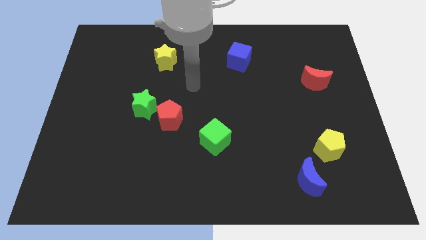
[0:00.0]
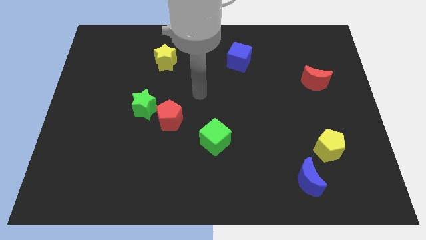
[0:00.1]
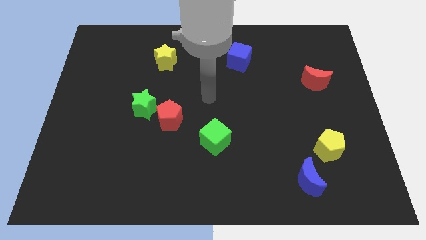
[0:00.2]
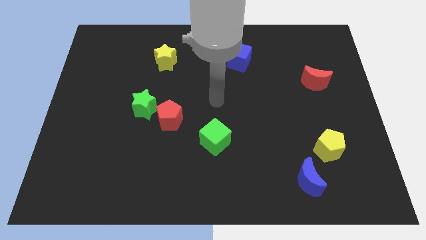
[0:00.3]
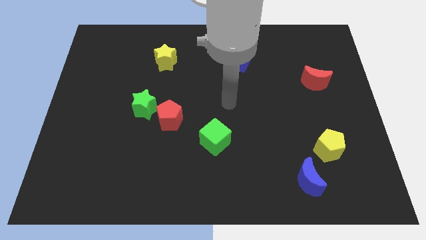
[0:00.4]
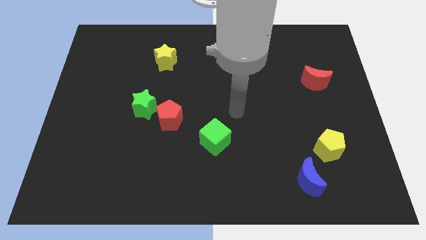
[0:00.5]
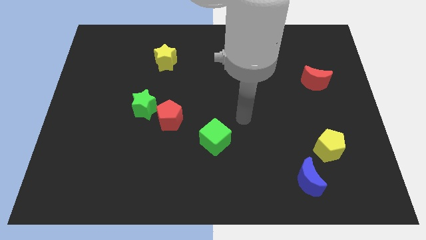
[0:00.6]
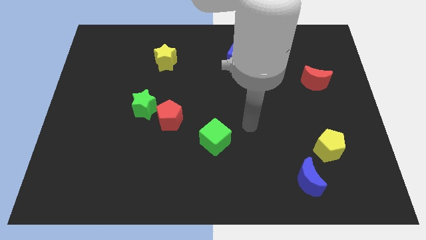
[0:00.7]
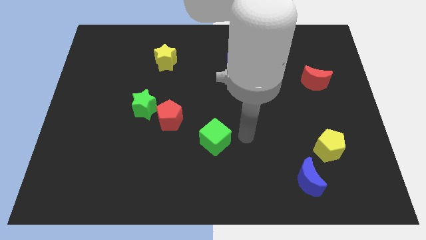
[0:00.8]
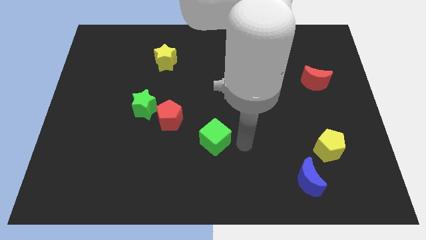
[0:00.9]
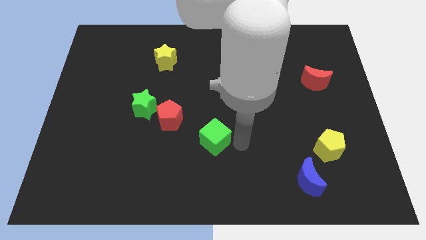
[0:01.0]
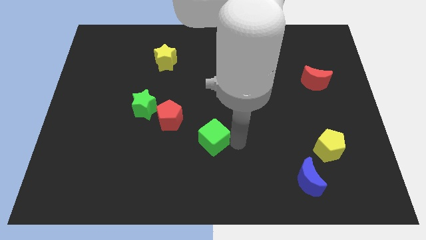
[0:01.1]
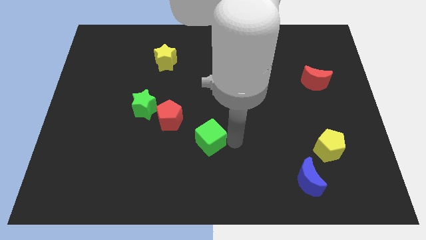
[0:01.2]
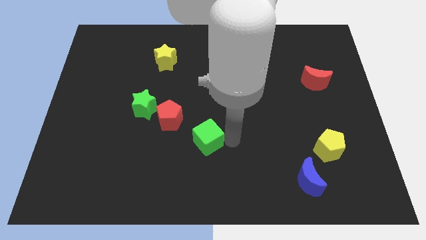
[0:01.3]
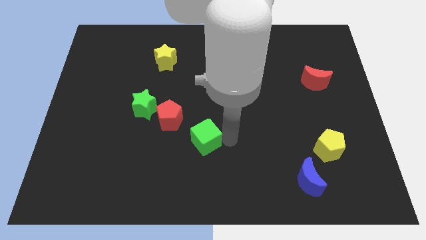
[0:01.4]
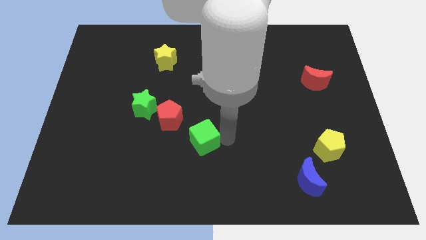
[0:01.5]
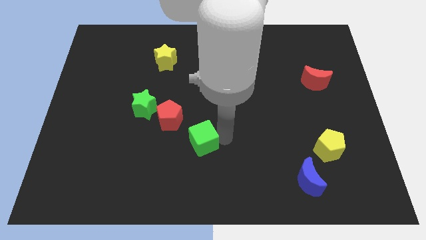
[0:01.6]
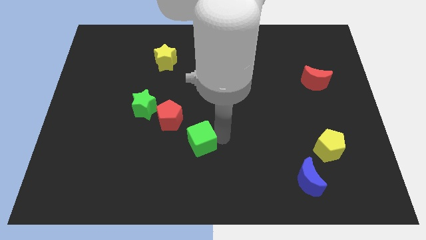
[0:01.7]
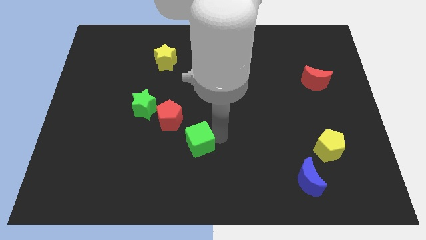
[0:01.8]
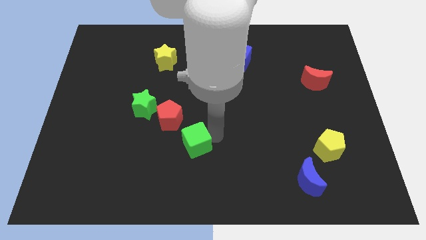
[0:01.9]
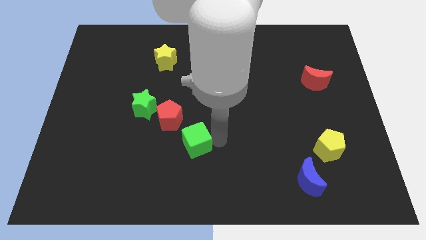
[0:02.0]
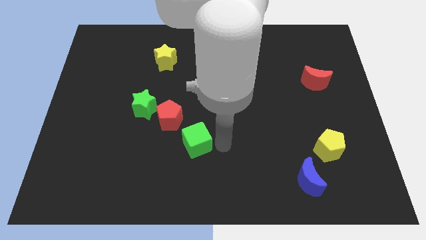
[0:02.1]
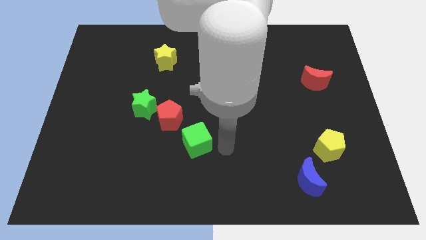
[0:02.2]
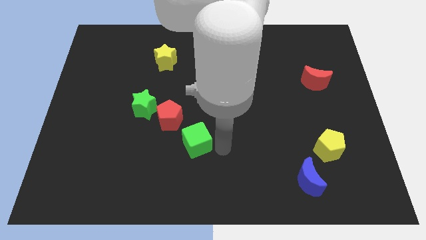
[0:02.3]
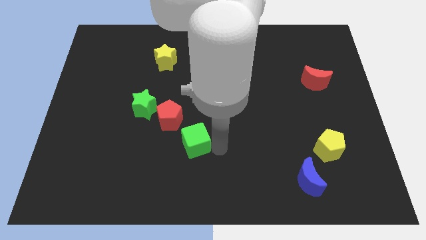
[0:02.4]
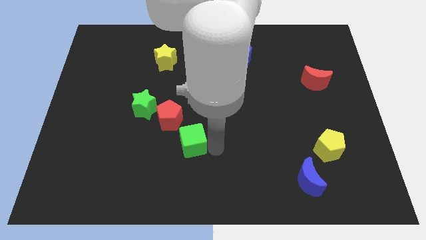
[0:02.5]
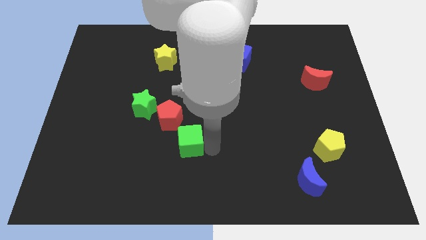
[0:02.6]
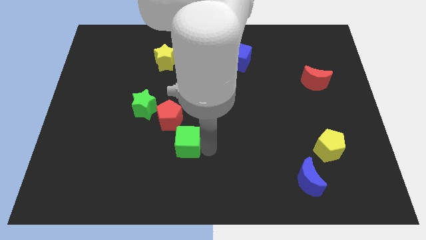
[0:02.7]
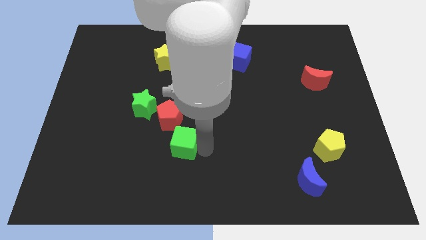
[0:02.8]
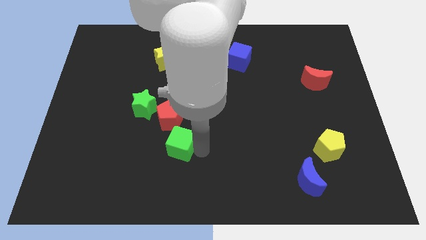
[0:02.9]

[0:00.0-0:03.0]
move the green cube slightly left

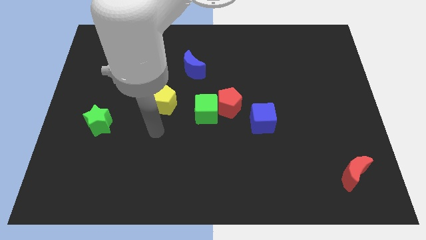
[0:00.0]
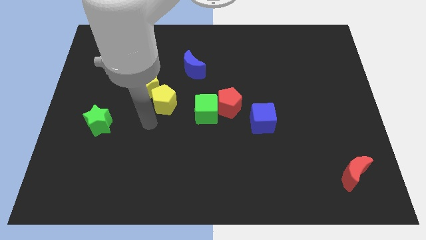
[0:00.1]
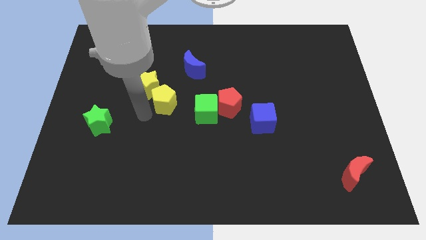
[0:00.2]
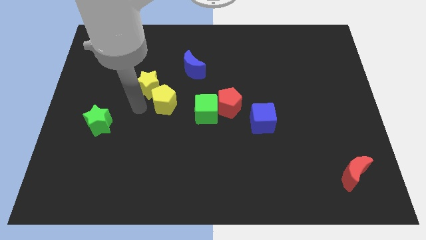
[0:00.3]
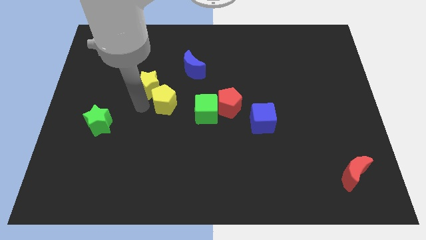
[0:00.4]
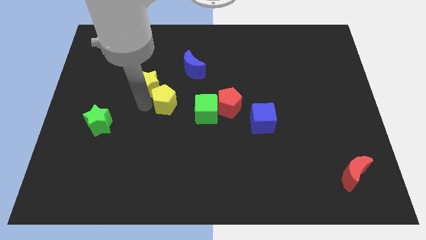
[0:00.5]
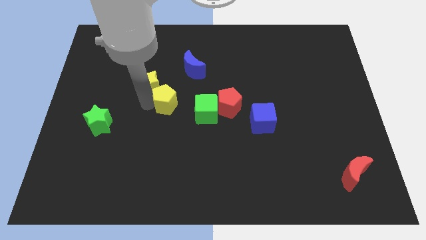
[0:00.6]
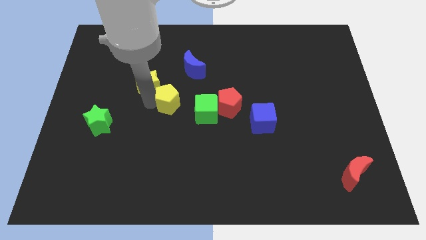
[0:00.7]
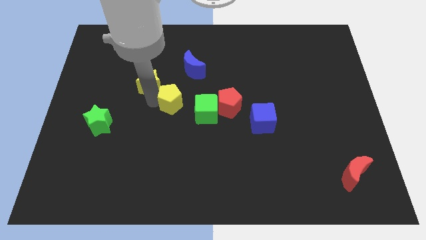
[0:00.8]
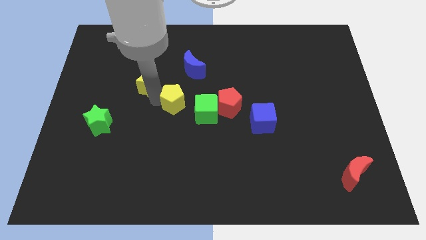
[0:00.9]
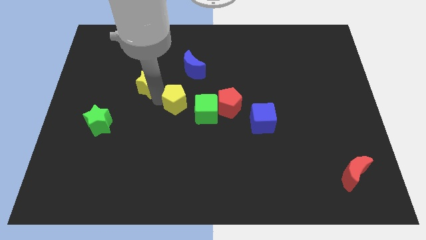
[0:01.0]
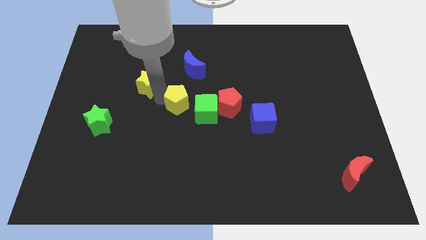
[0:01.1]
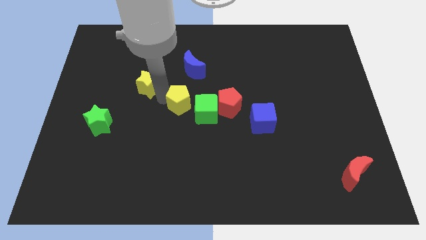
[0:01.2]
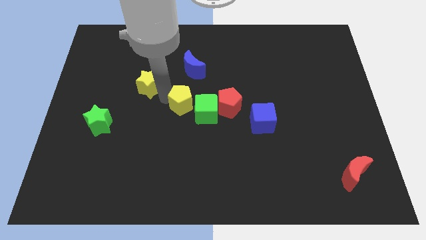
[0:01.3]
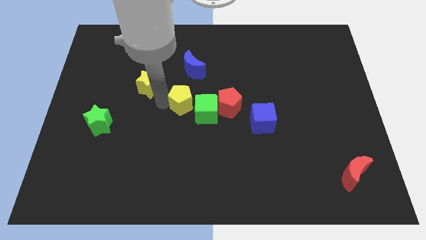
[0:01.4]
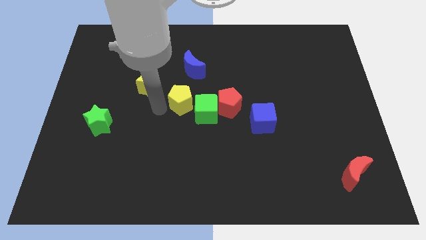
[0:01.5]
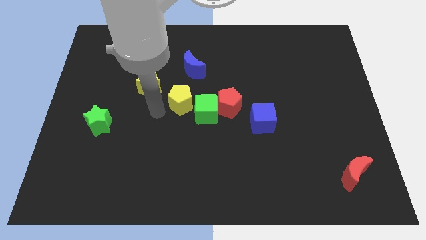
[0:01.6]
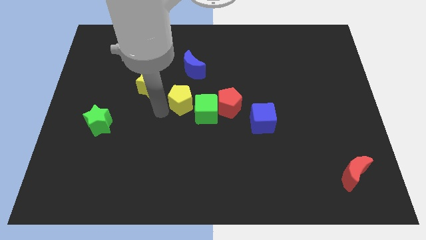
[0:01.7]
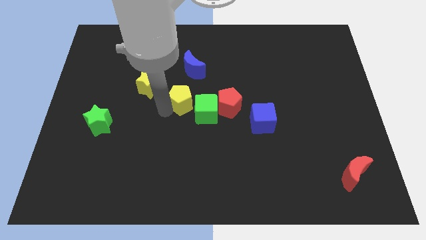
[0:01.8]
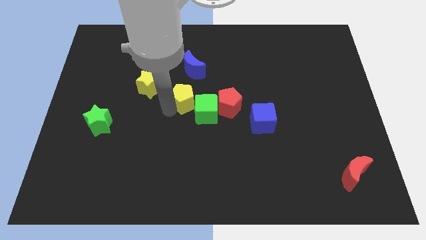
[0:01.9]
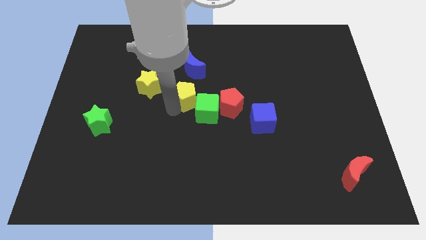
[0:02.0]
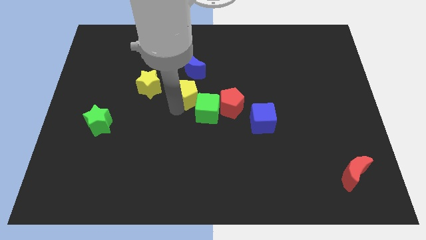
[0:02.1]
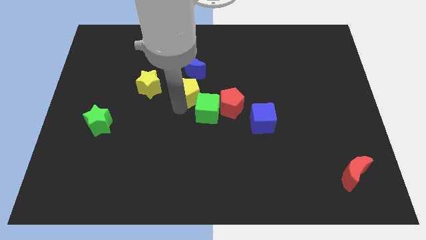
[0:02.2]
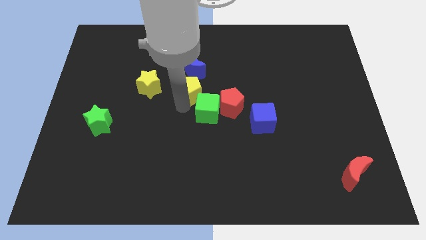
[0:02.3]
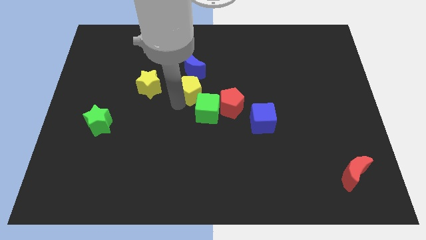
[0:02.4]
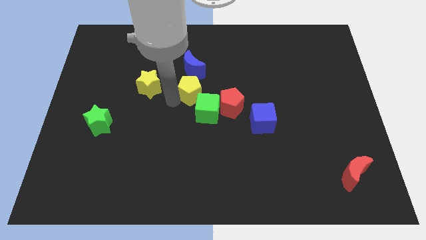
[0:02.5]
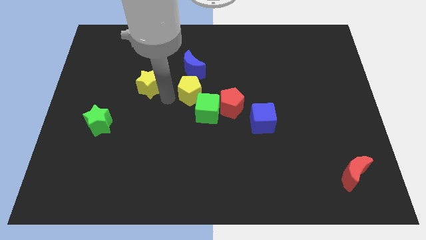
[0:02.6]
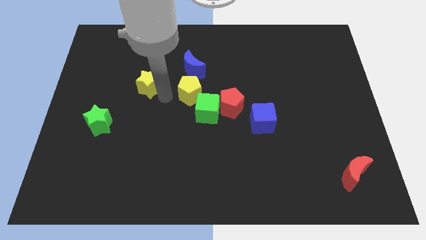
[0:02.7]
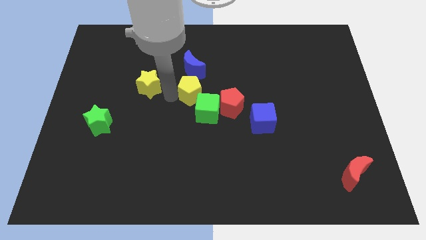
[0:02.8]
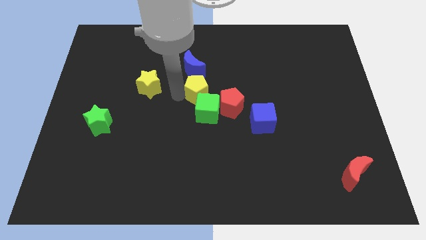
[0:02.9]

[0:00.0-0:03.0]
push the yellow pentagon to the right a little bit

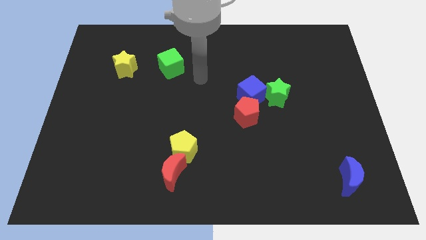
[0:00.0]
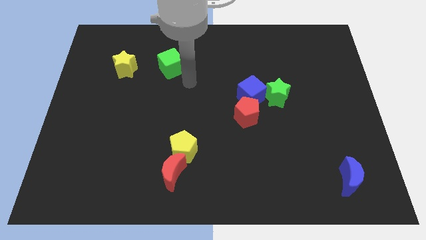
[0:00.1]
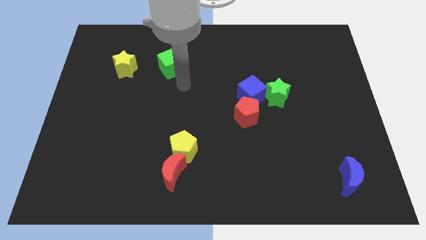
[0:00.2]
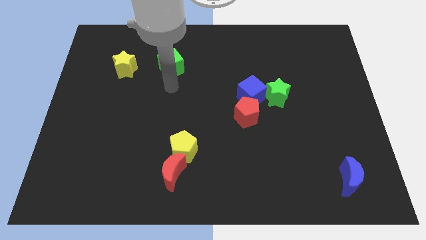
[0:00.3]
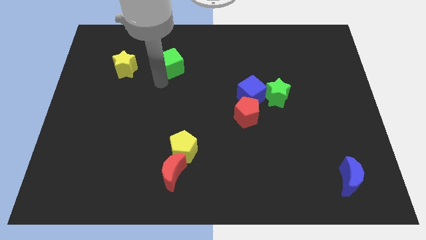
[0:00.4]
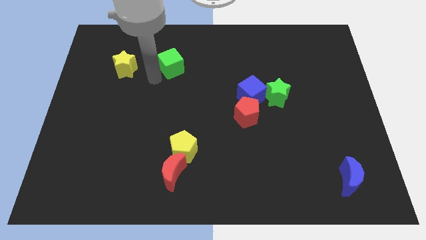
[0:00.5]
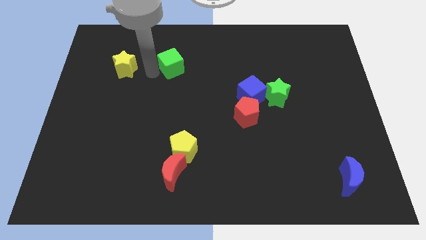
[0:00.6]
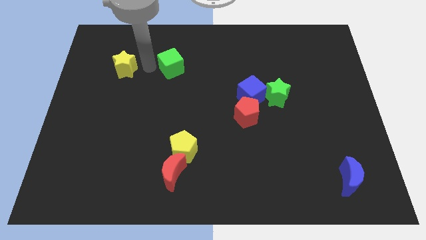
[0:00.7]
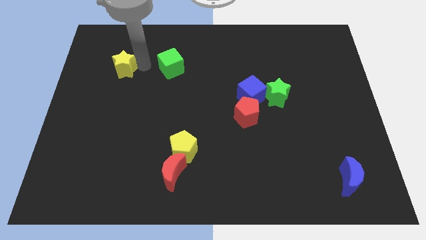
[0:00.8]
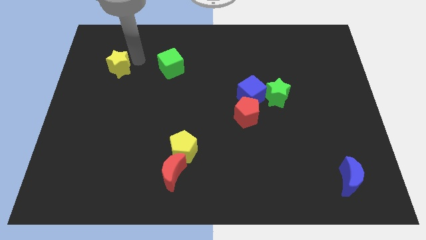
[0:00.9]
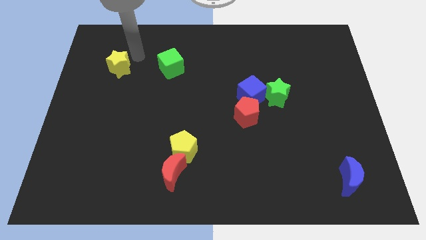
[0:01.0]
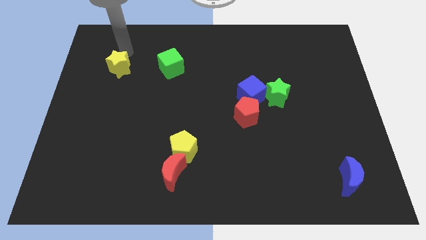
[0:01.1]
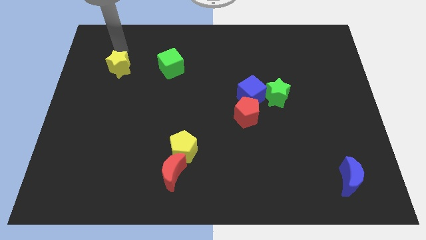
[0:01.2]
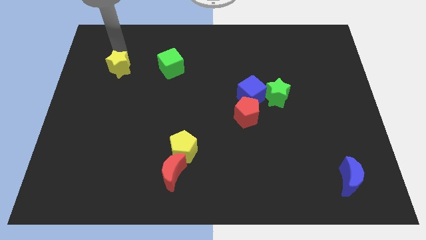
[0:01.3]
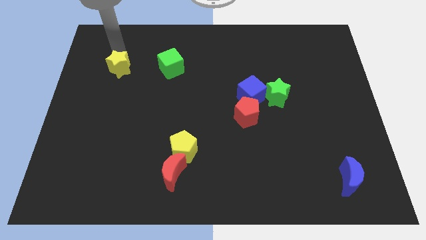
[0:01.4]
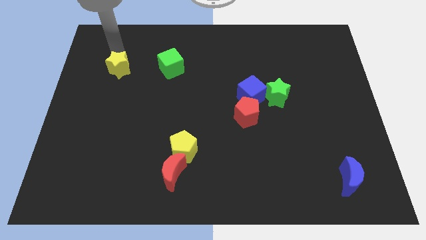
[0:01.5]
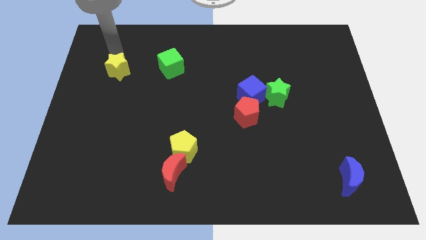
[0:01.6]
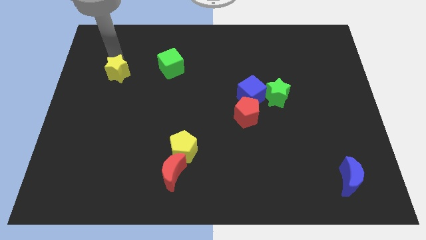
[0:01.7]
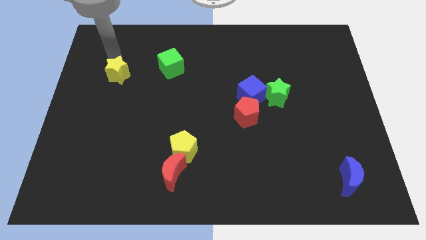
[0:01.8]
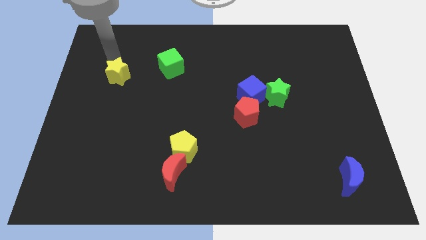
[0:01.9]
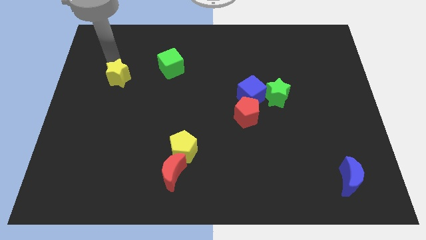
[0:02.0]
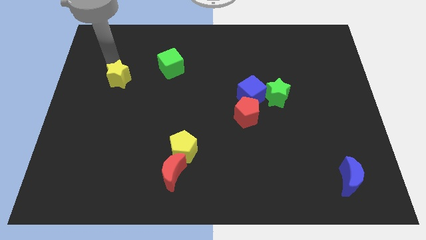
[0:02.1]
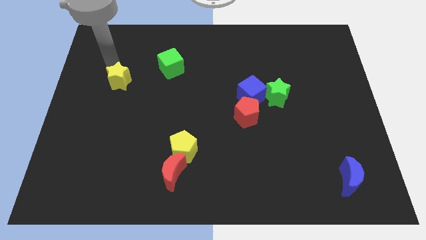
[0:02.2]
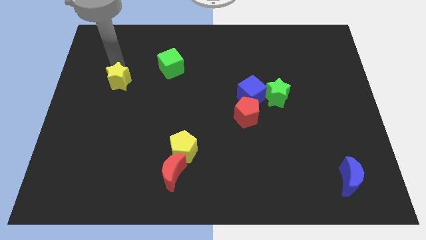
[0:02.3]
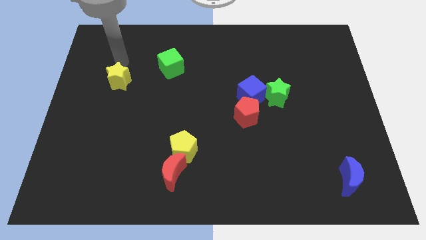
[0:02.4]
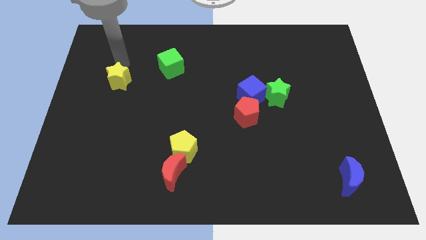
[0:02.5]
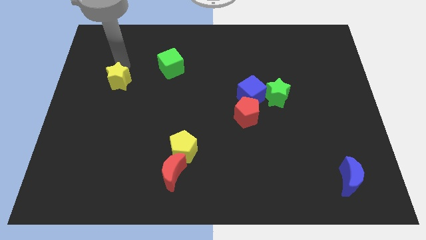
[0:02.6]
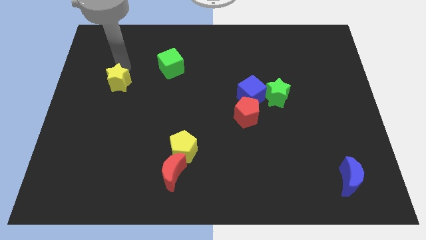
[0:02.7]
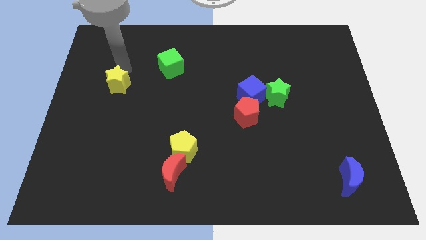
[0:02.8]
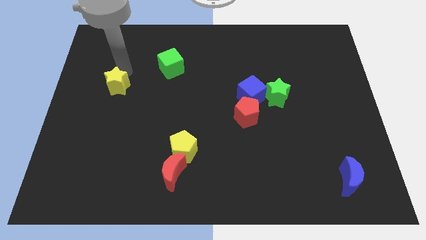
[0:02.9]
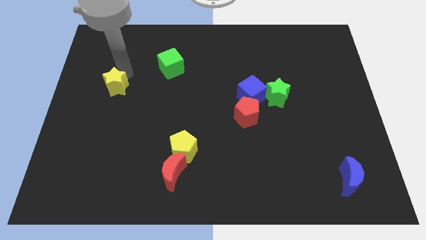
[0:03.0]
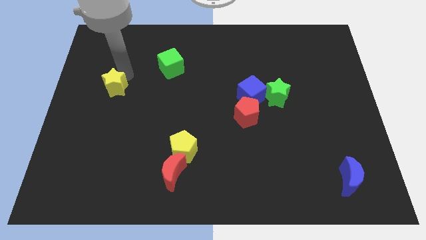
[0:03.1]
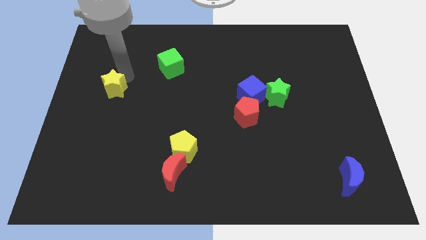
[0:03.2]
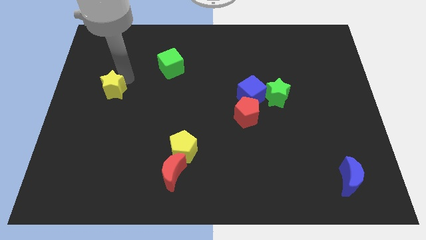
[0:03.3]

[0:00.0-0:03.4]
push the yellow star somewhat down
